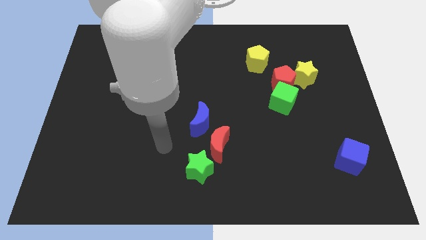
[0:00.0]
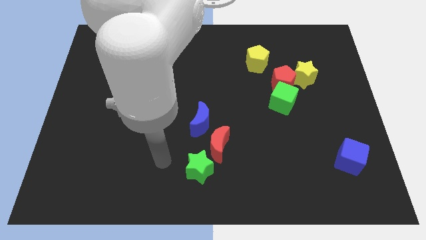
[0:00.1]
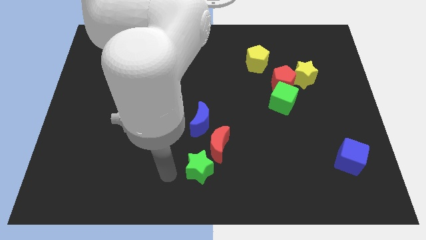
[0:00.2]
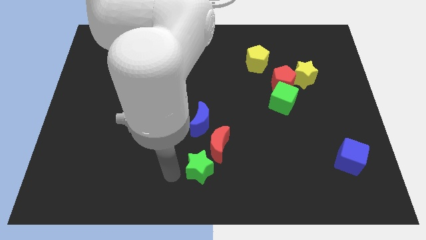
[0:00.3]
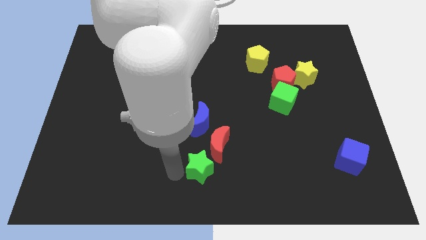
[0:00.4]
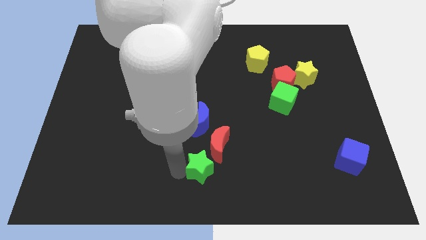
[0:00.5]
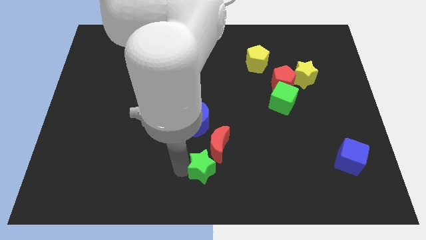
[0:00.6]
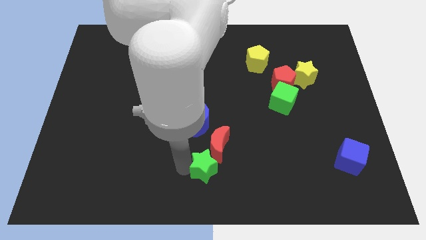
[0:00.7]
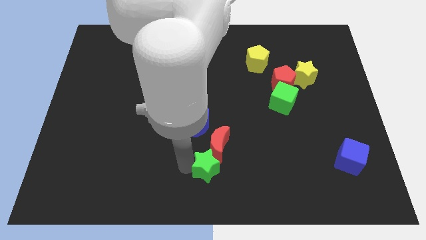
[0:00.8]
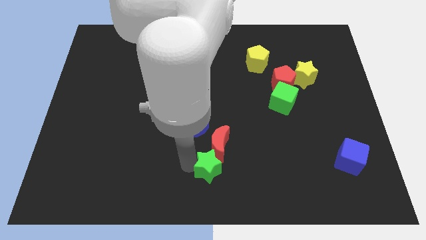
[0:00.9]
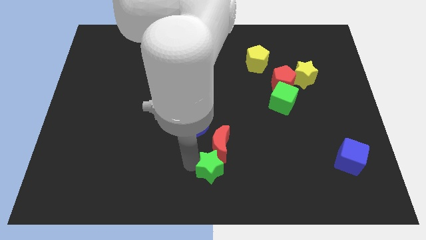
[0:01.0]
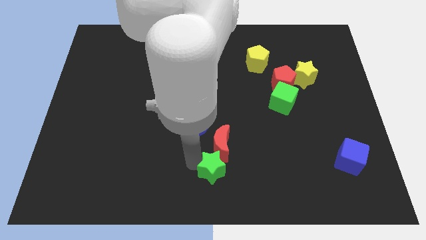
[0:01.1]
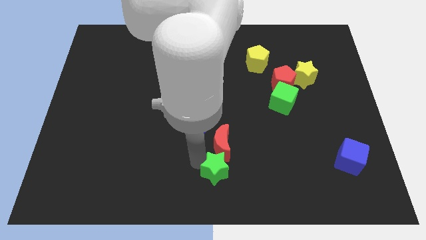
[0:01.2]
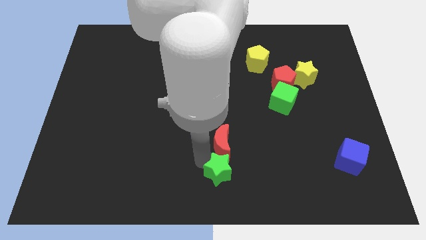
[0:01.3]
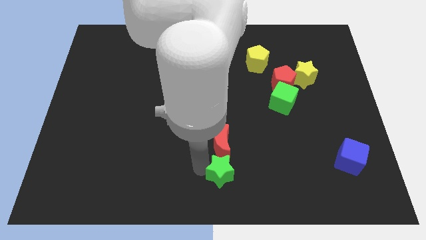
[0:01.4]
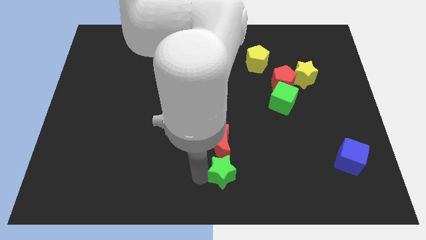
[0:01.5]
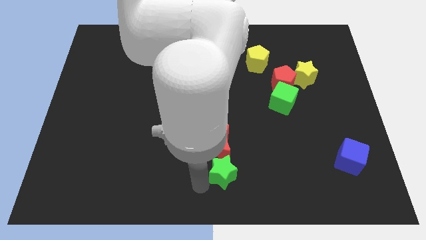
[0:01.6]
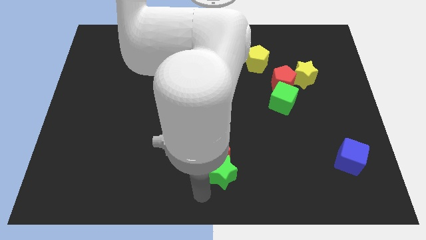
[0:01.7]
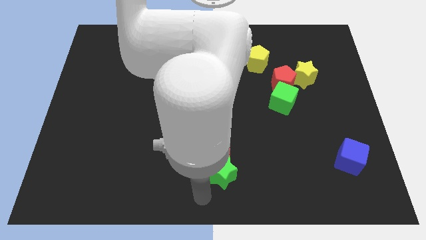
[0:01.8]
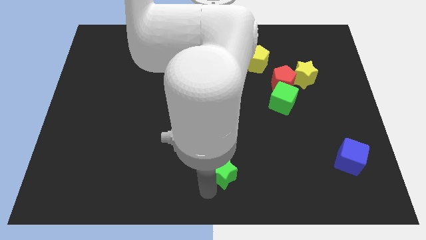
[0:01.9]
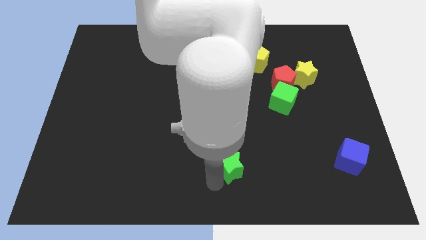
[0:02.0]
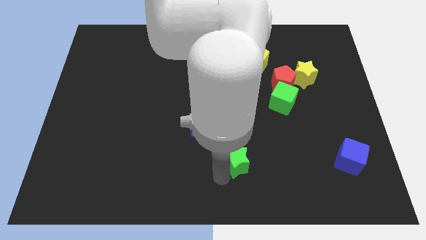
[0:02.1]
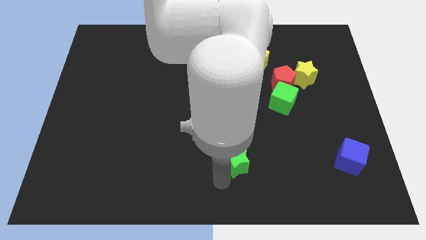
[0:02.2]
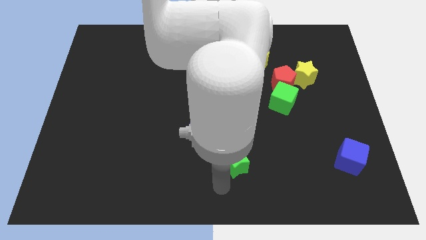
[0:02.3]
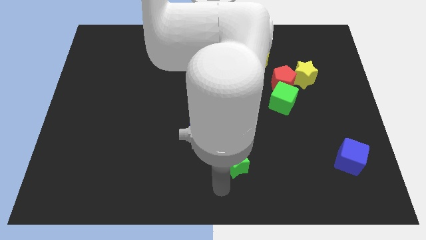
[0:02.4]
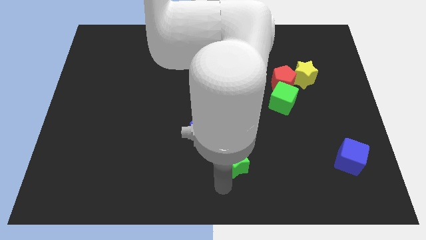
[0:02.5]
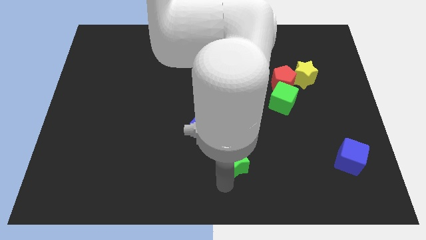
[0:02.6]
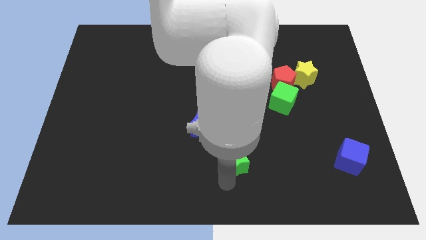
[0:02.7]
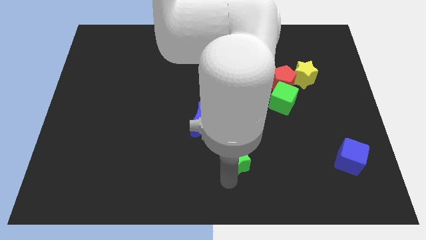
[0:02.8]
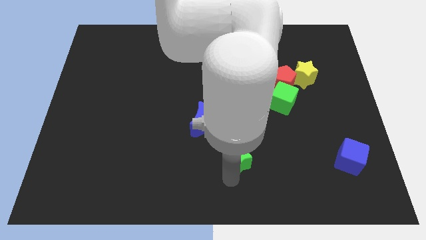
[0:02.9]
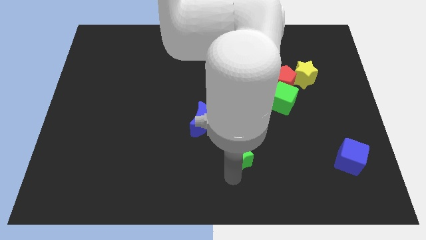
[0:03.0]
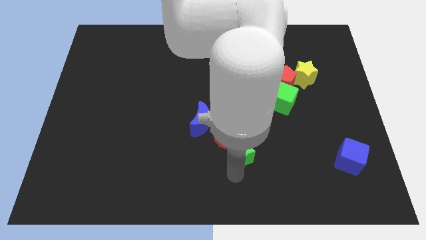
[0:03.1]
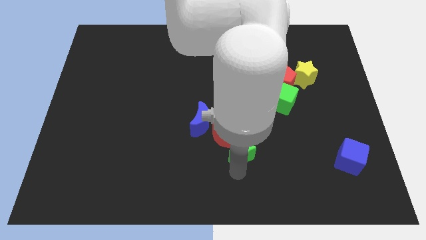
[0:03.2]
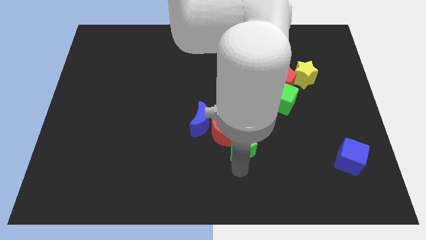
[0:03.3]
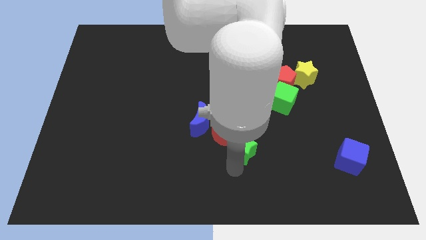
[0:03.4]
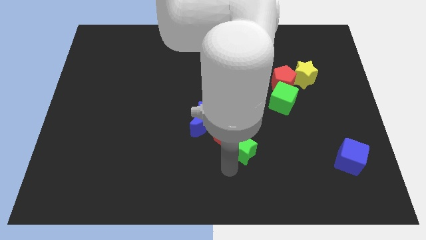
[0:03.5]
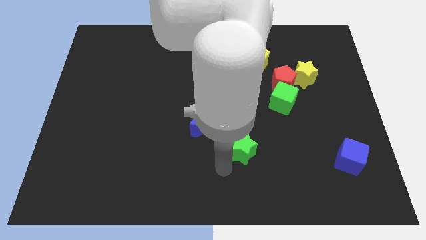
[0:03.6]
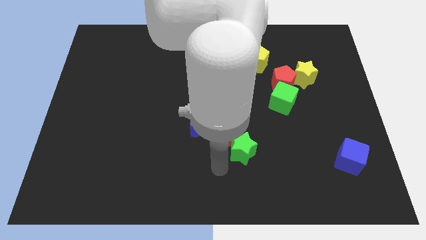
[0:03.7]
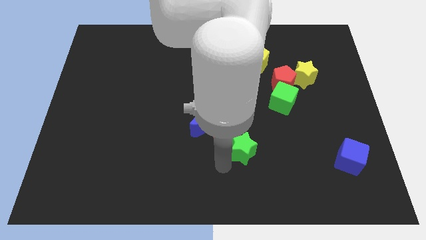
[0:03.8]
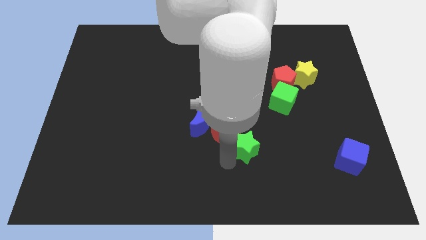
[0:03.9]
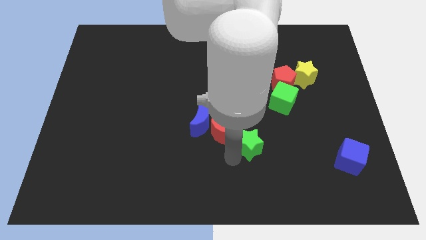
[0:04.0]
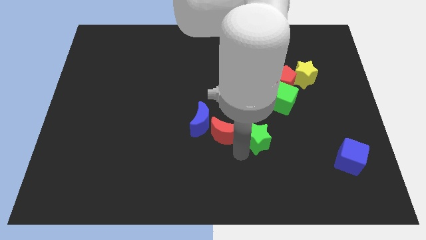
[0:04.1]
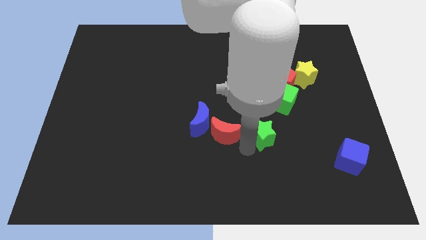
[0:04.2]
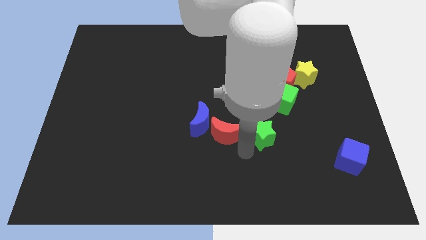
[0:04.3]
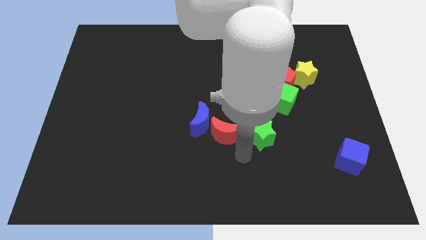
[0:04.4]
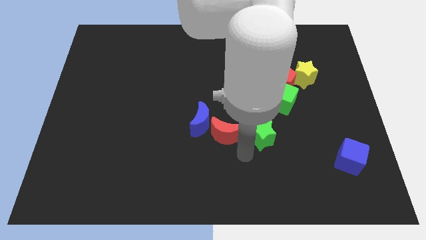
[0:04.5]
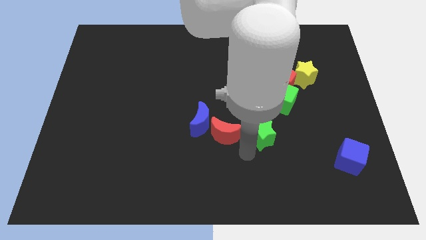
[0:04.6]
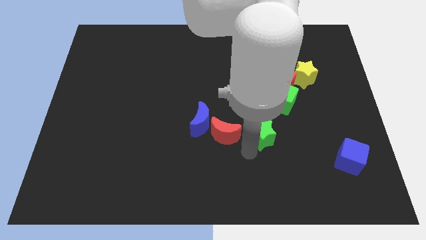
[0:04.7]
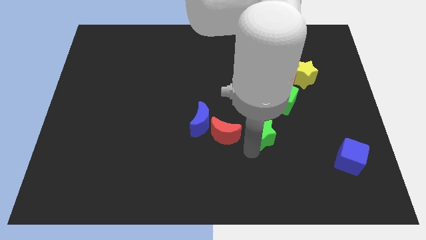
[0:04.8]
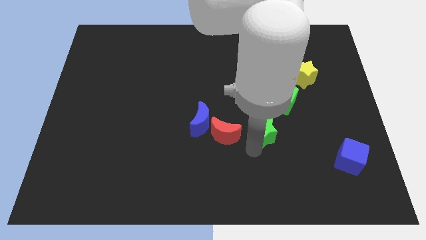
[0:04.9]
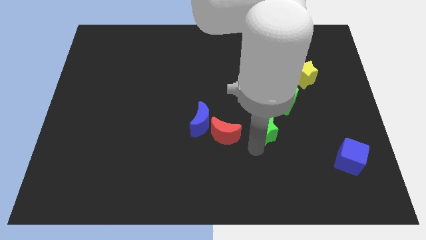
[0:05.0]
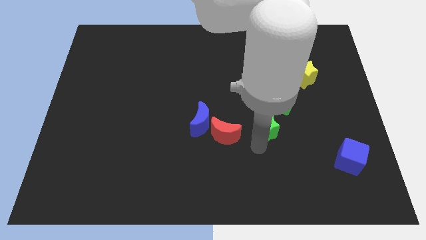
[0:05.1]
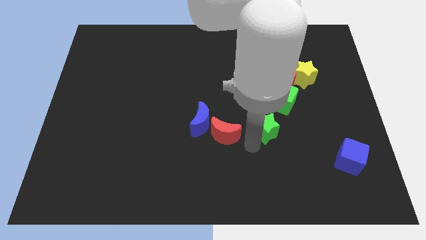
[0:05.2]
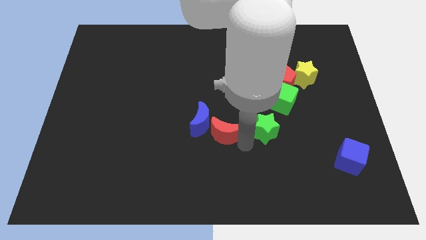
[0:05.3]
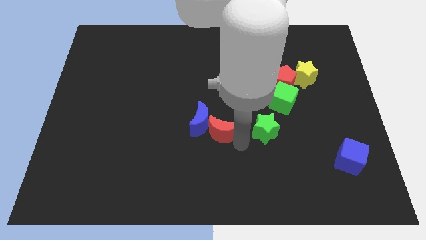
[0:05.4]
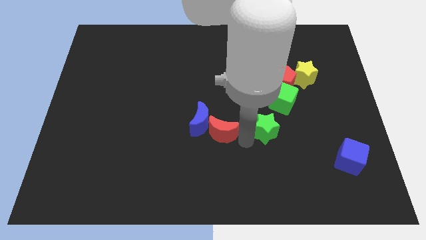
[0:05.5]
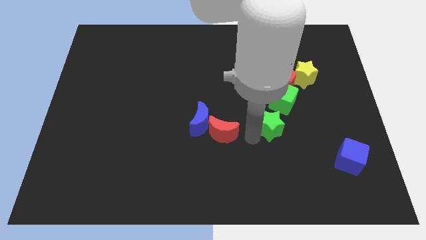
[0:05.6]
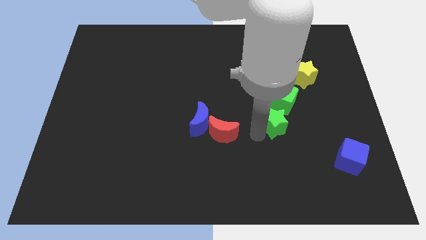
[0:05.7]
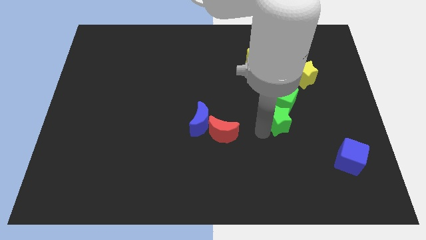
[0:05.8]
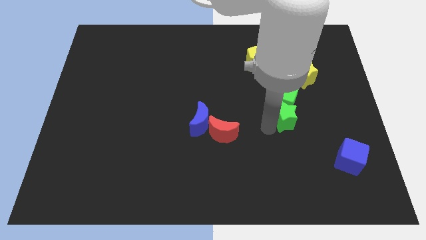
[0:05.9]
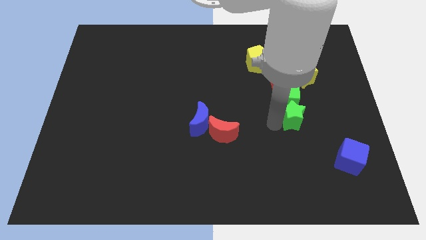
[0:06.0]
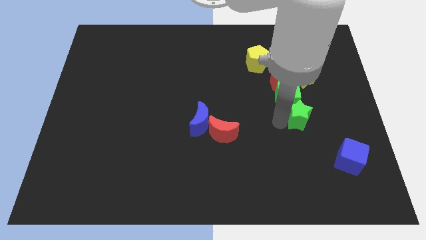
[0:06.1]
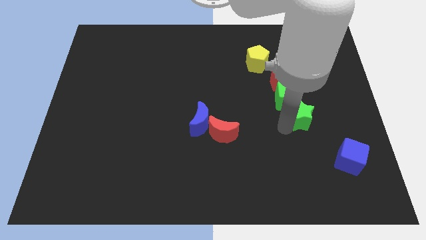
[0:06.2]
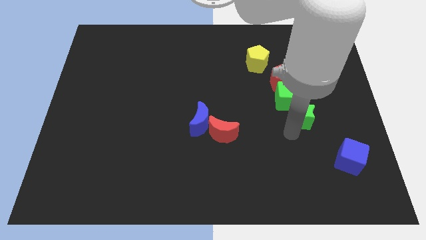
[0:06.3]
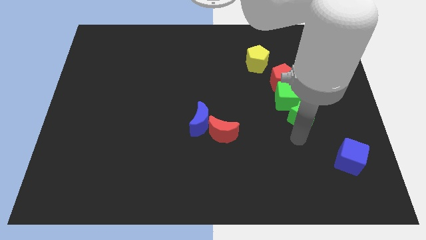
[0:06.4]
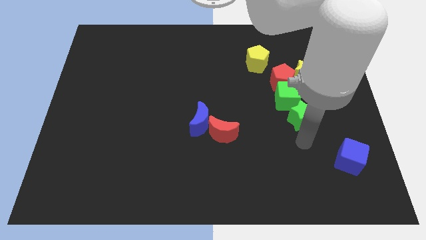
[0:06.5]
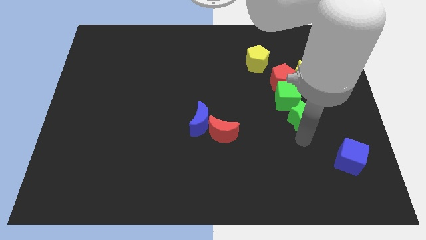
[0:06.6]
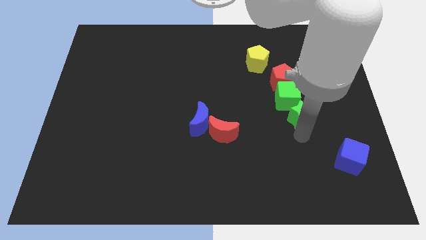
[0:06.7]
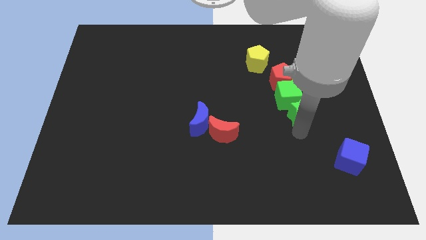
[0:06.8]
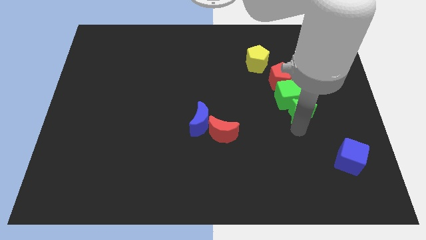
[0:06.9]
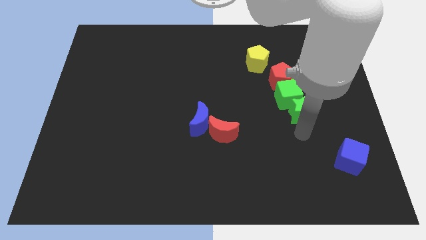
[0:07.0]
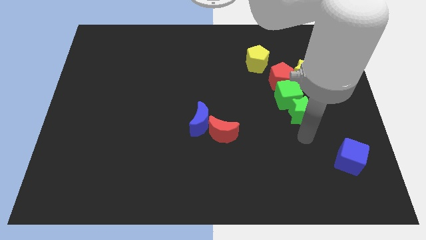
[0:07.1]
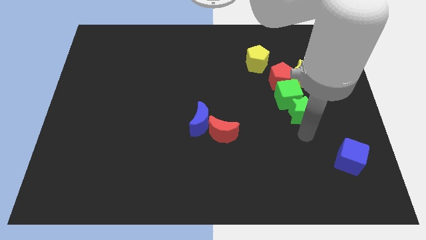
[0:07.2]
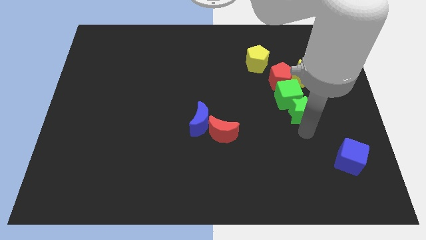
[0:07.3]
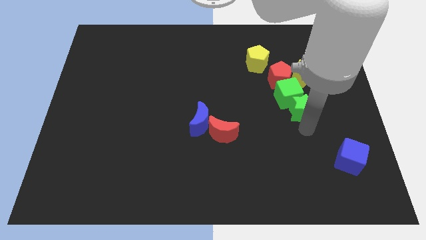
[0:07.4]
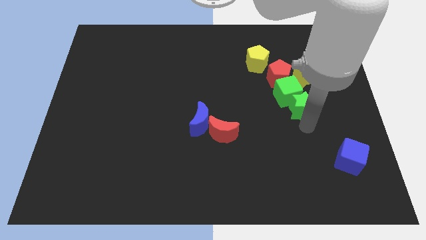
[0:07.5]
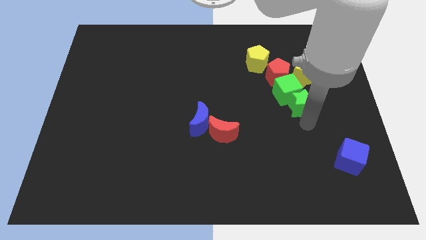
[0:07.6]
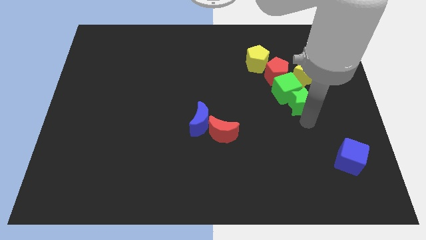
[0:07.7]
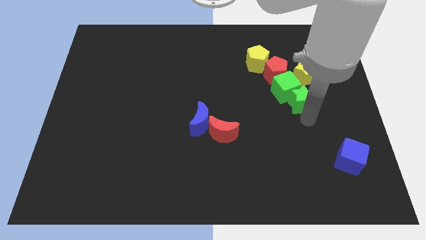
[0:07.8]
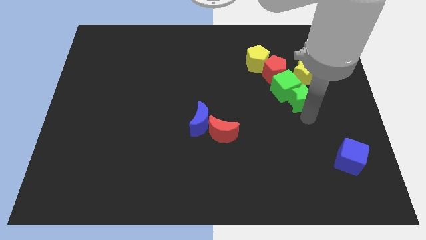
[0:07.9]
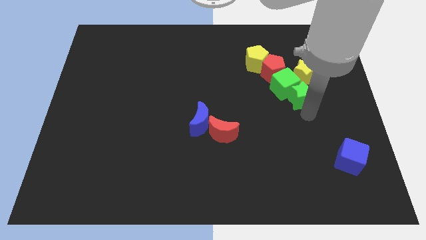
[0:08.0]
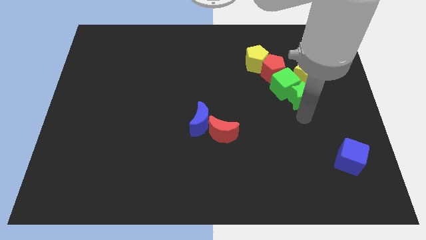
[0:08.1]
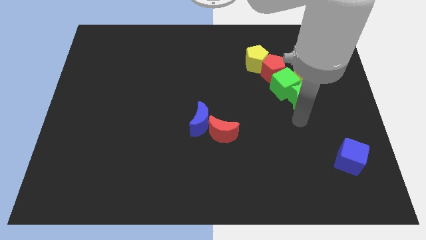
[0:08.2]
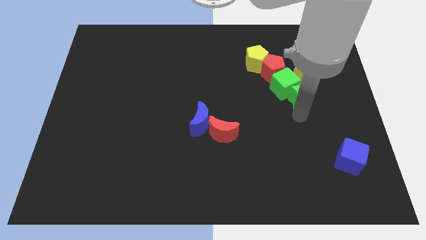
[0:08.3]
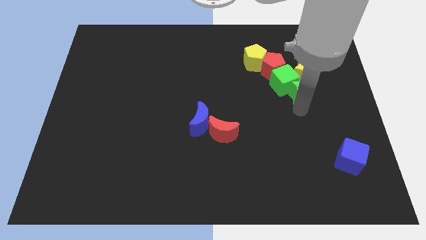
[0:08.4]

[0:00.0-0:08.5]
slide the green star to the yellow star
